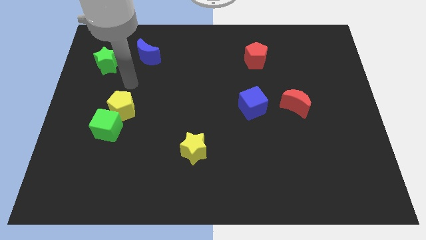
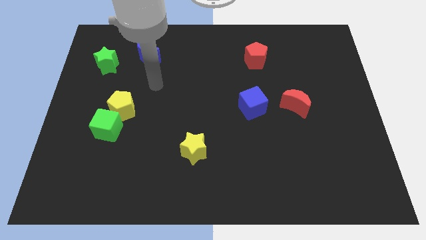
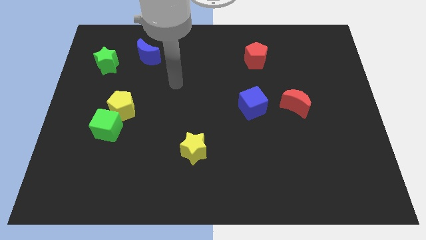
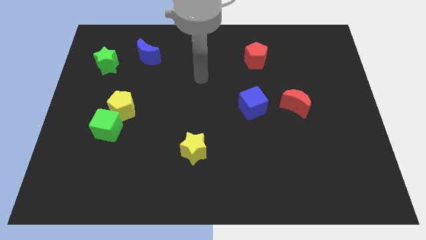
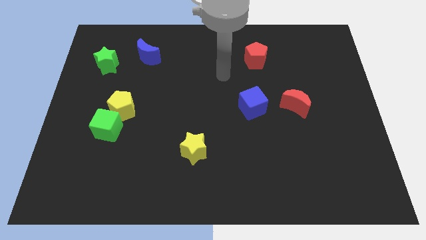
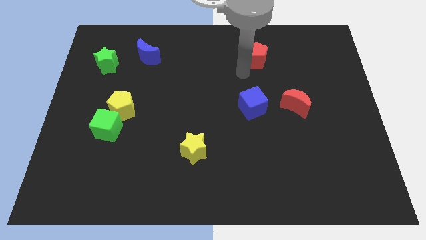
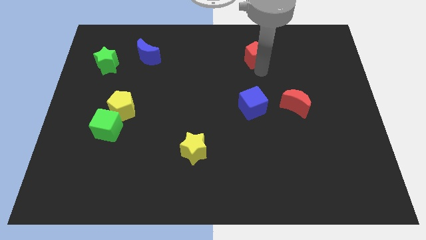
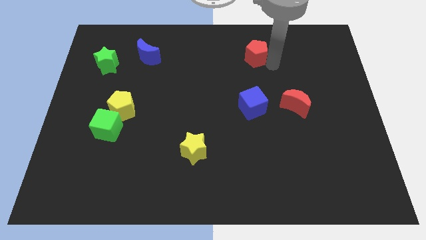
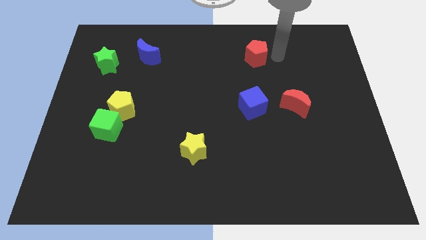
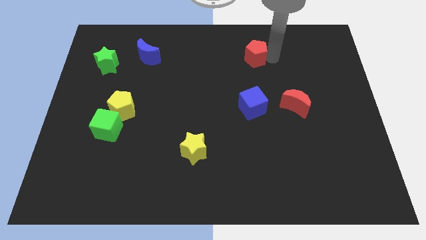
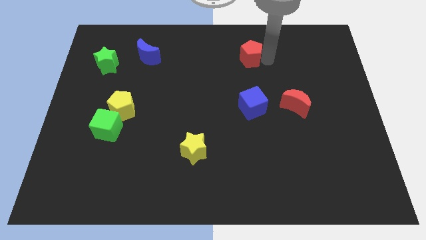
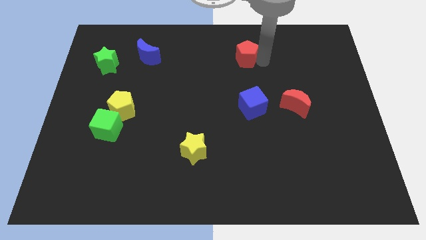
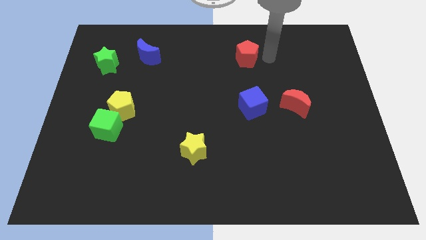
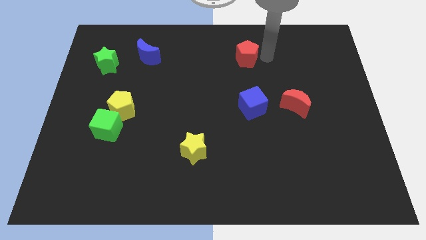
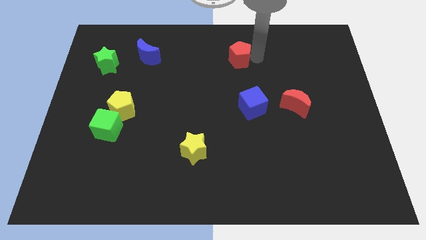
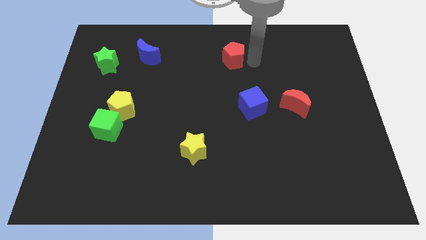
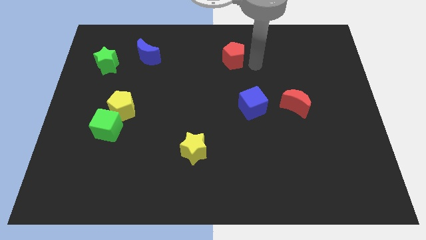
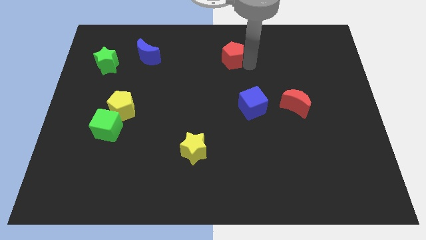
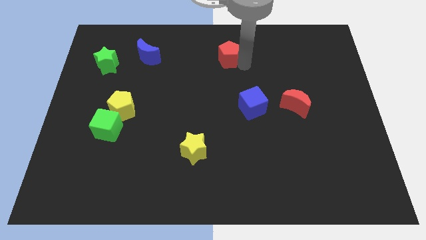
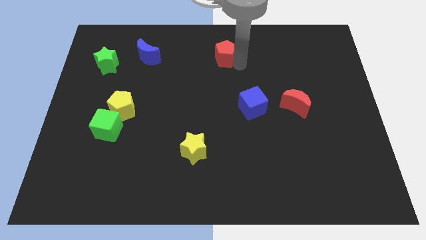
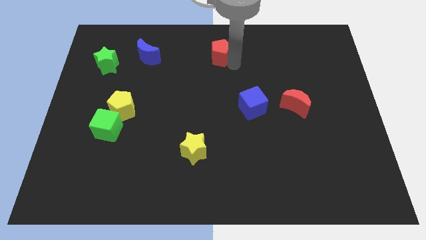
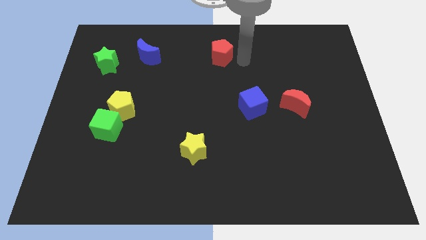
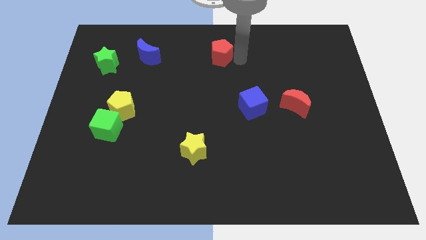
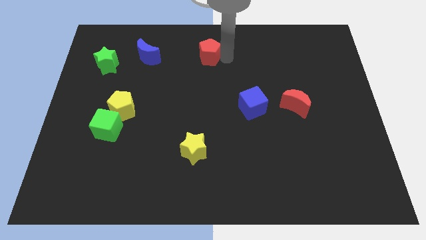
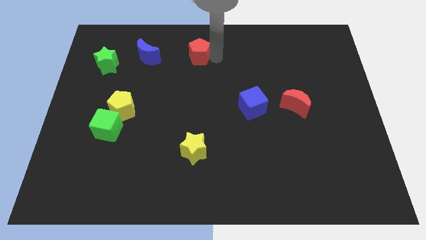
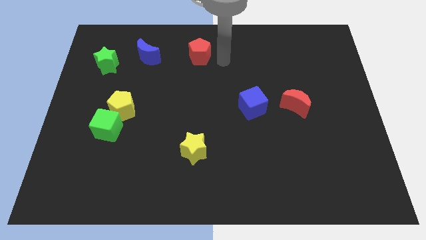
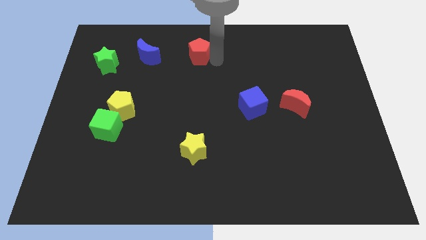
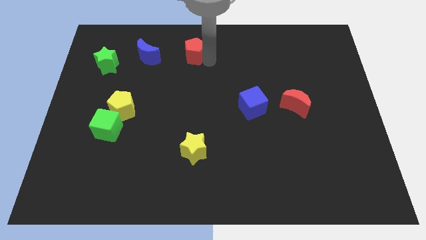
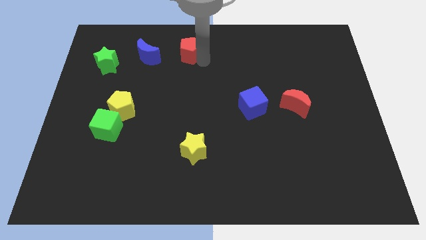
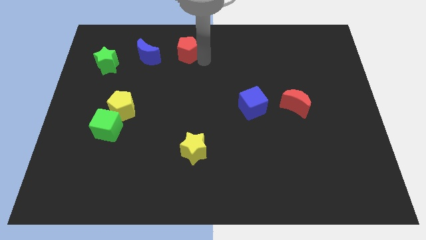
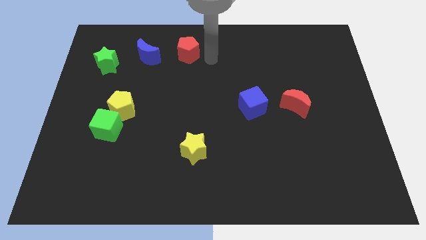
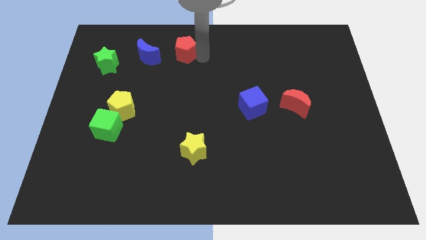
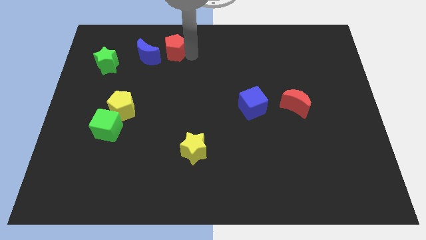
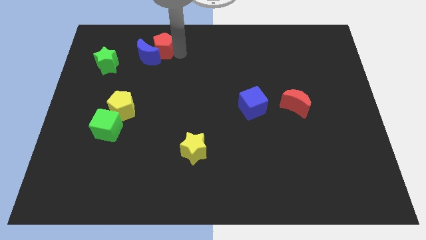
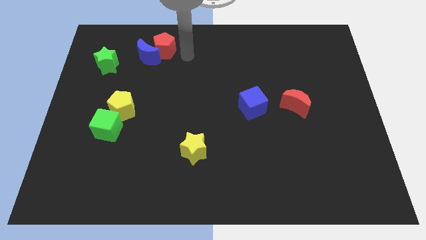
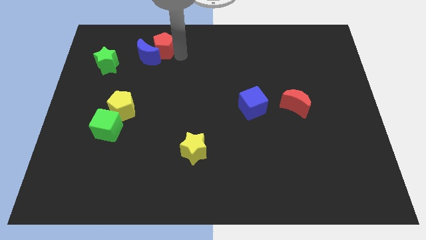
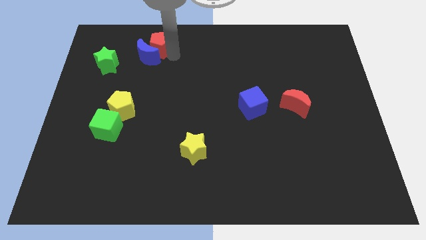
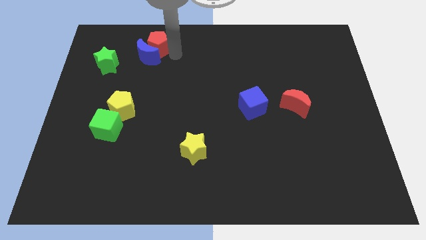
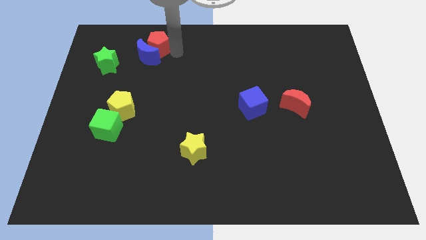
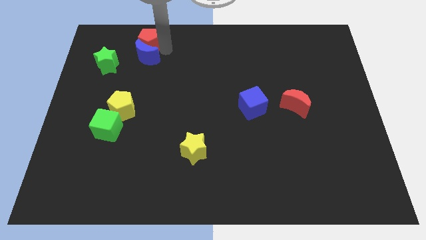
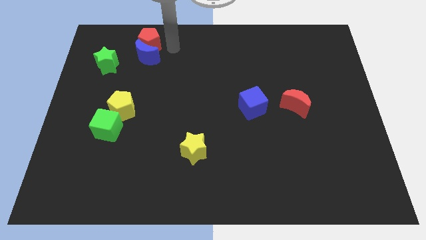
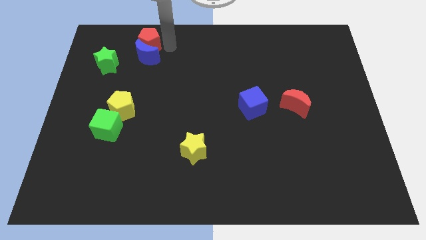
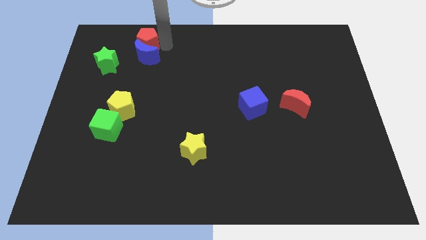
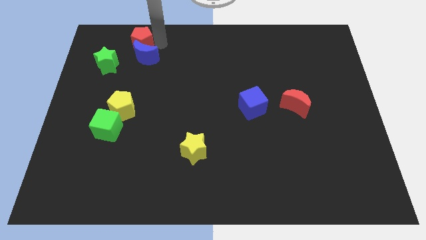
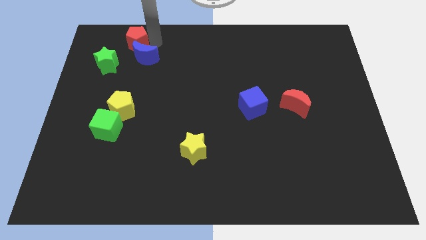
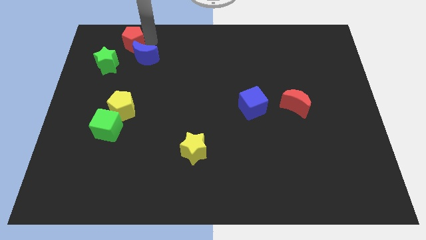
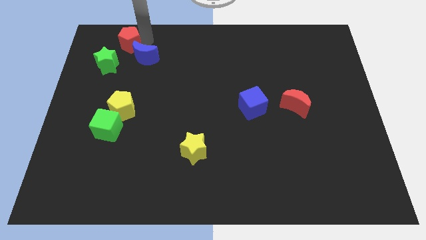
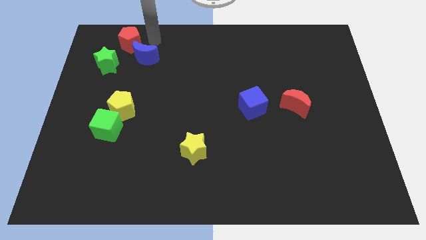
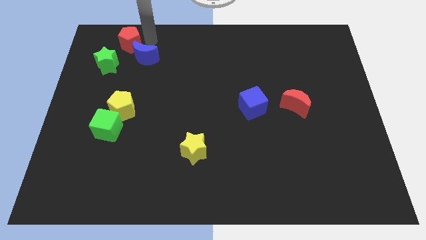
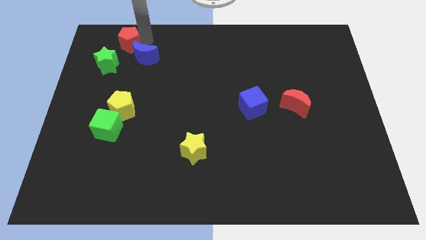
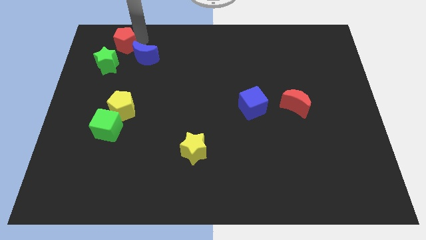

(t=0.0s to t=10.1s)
move the red pentagon just left of the blue moon

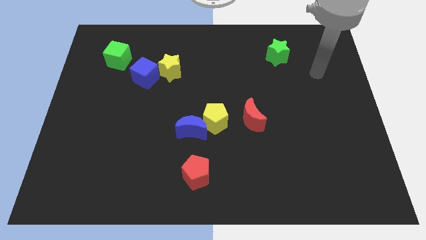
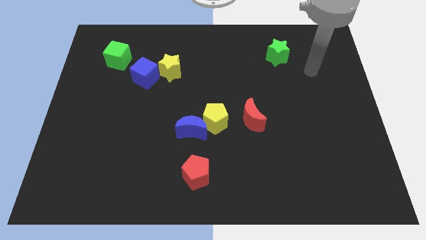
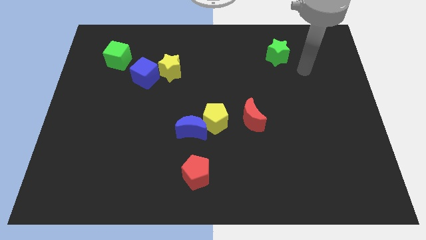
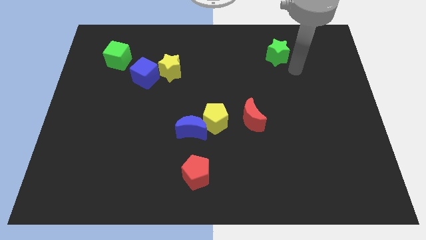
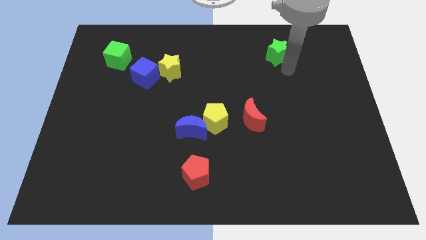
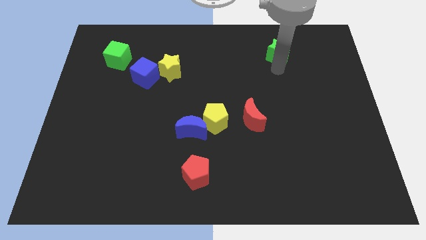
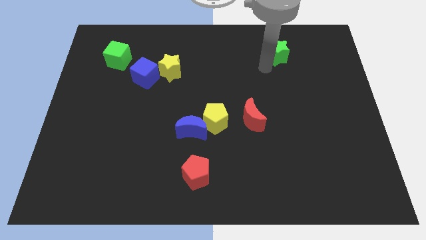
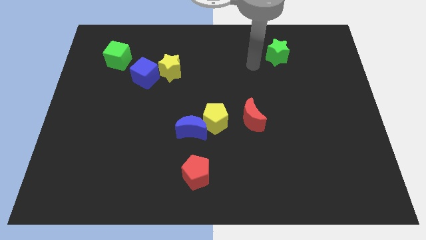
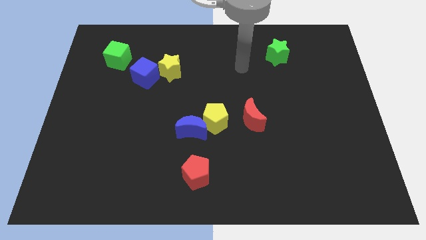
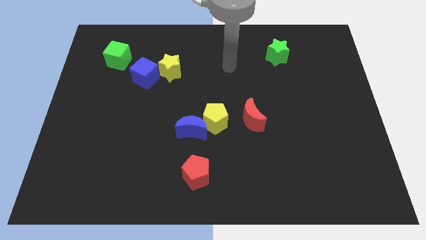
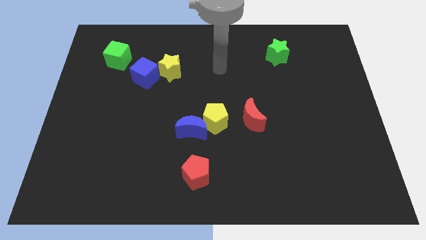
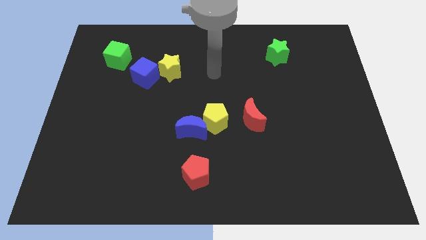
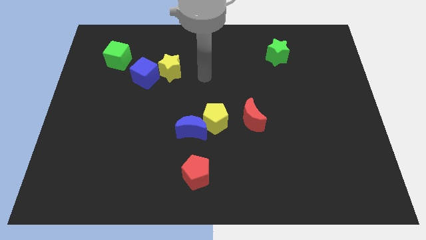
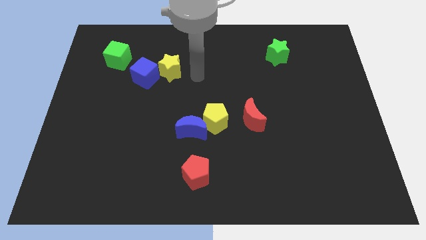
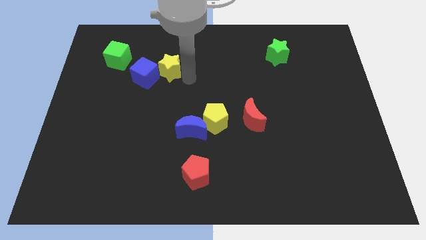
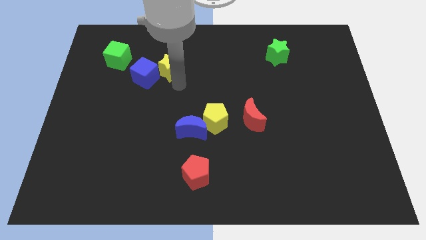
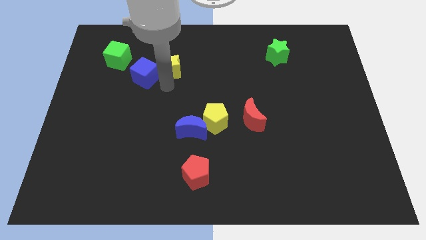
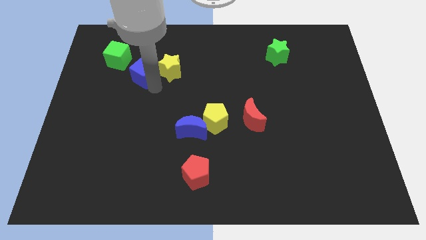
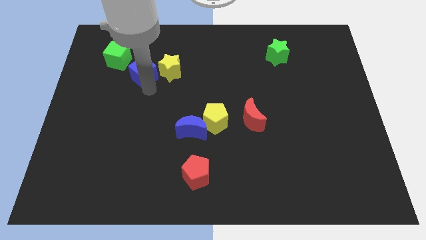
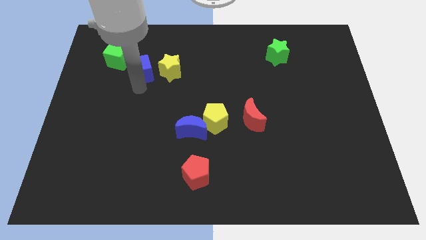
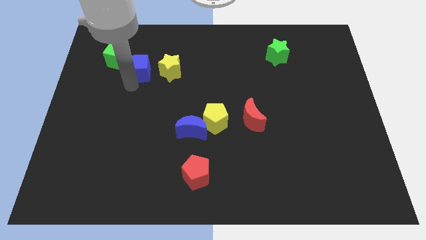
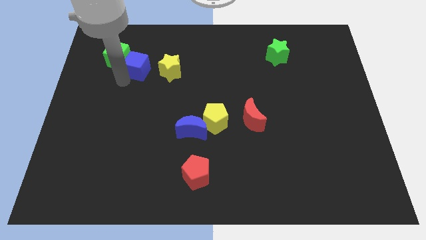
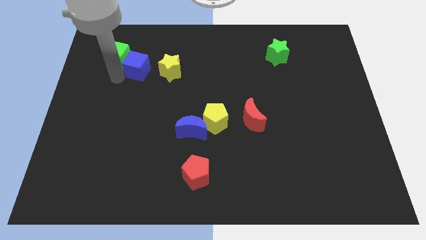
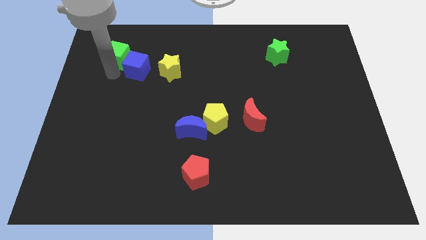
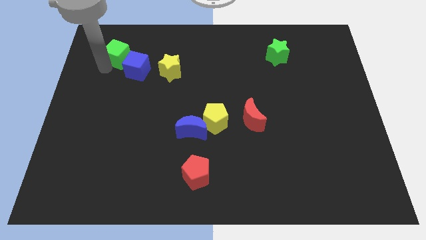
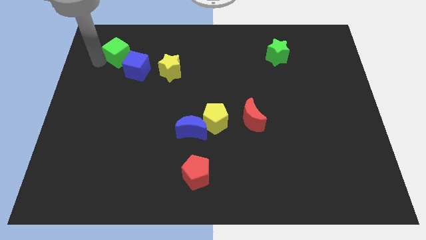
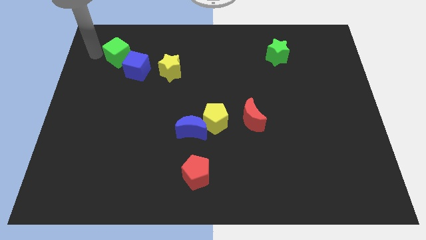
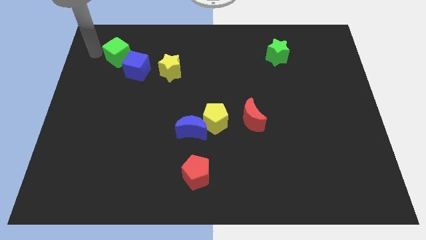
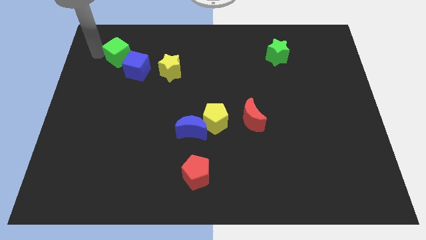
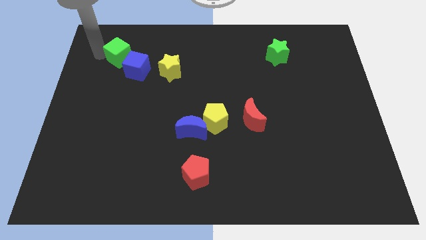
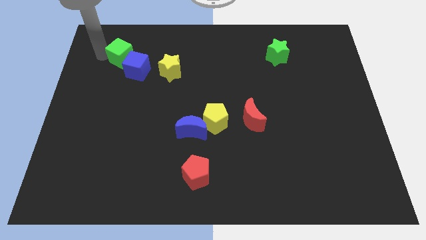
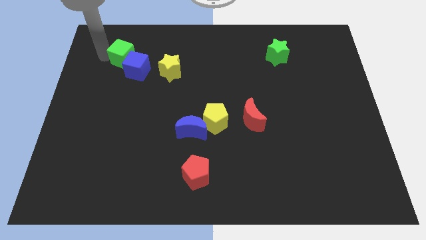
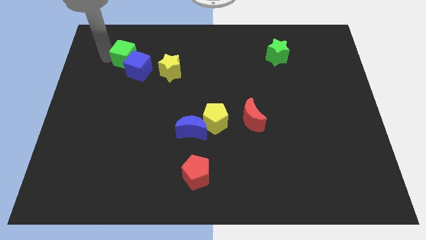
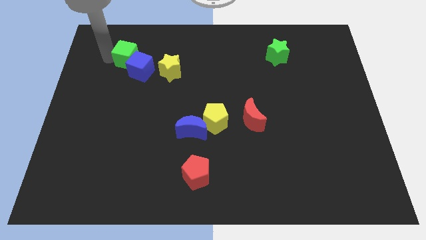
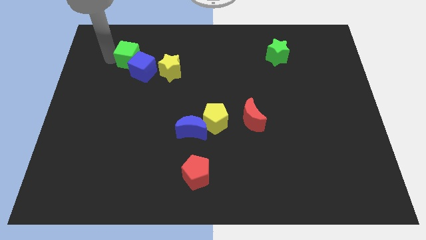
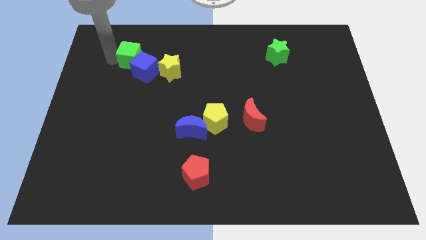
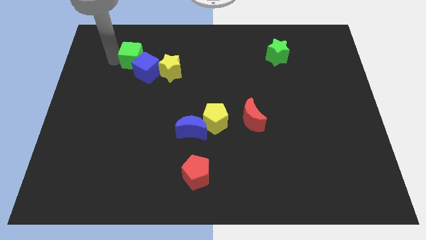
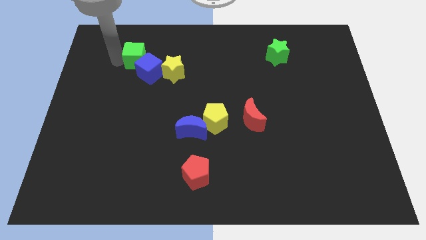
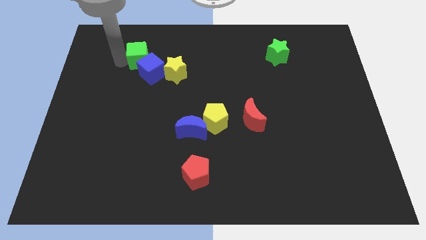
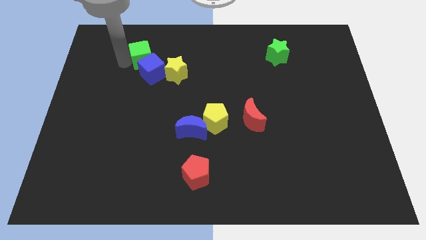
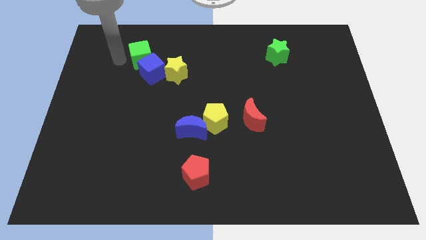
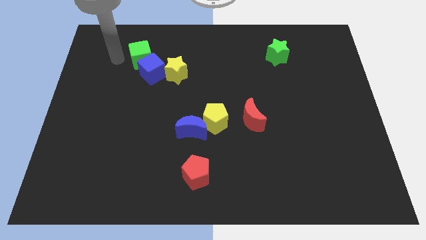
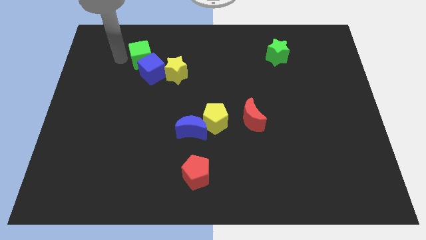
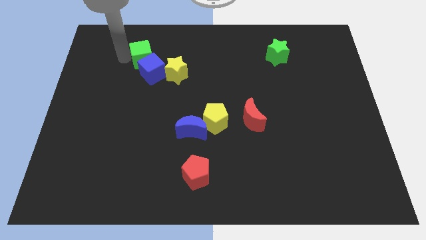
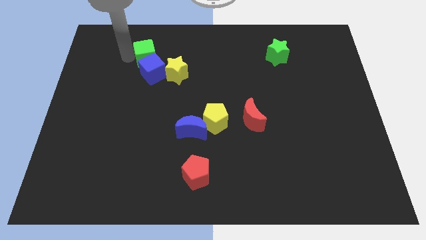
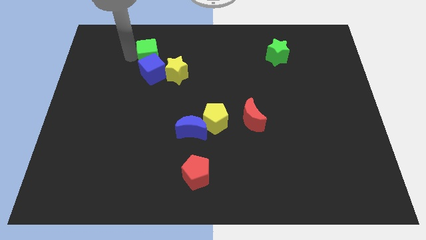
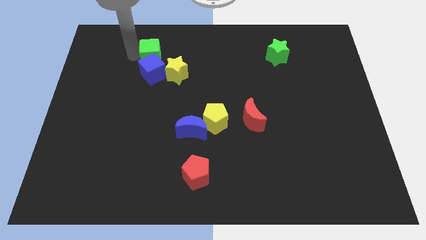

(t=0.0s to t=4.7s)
slide the green cube to the top right of the blue cube
